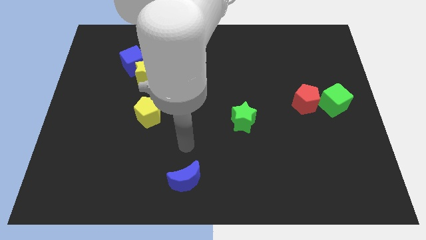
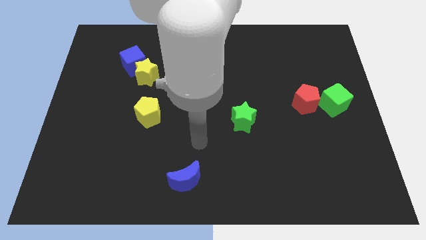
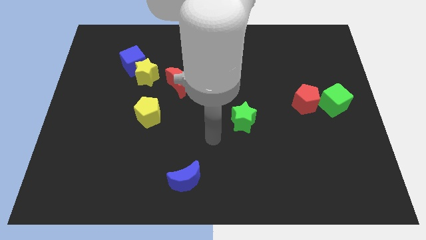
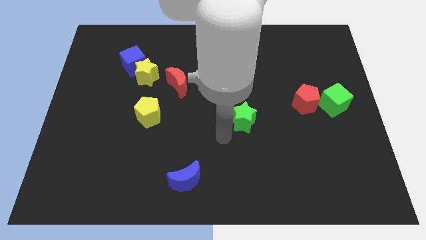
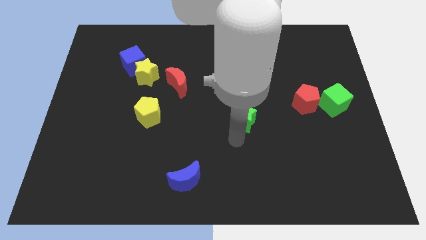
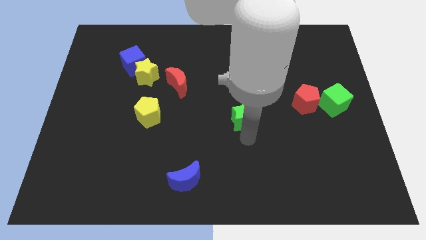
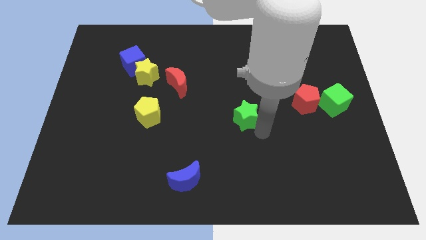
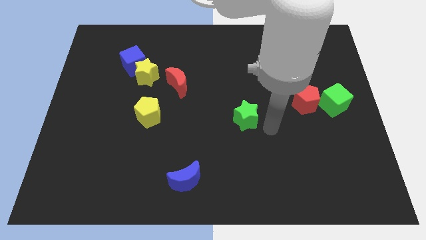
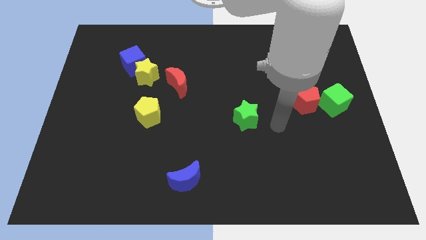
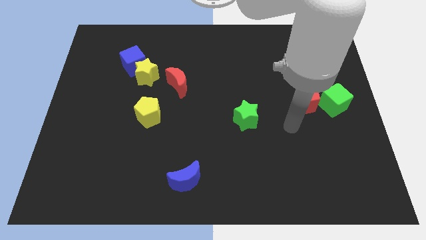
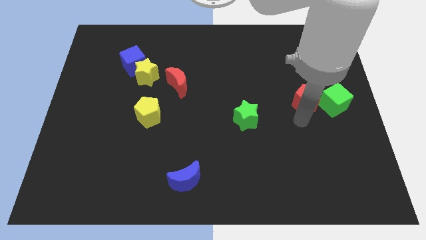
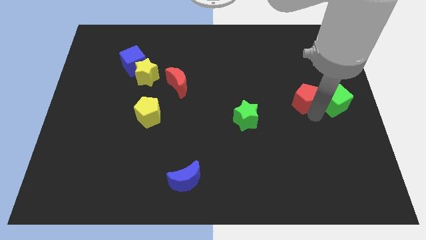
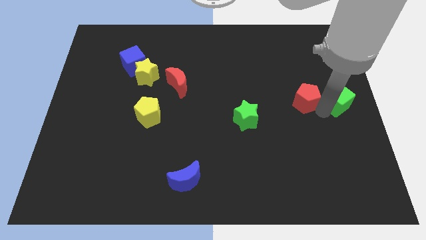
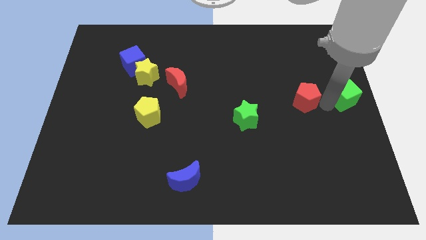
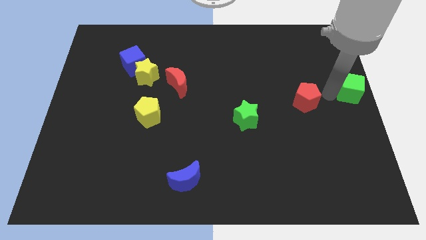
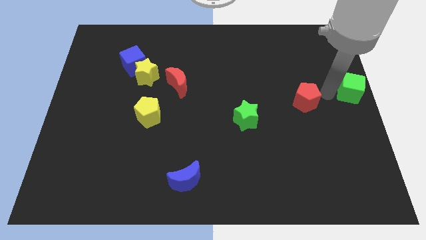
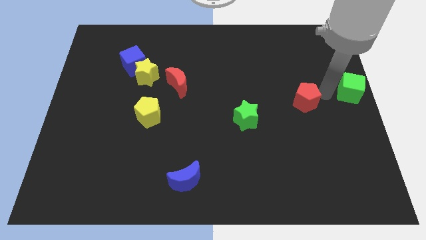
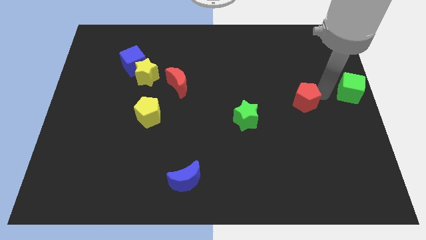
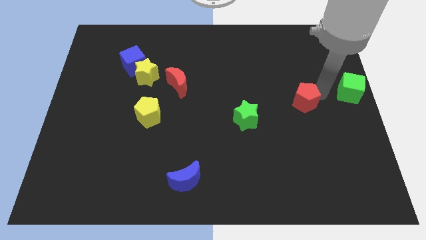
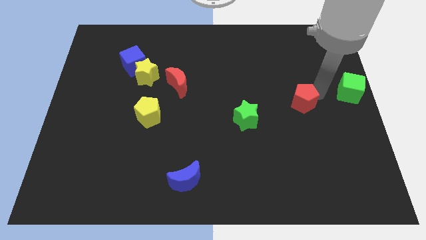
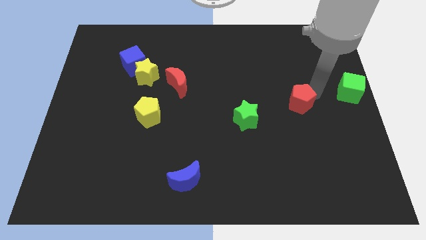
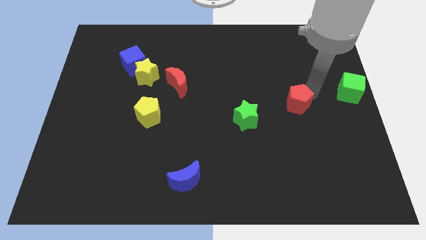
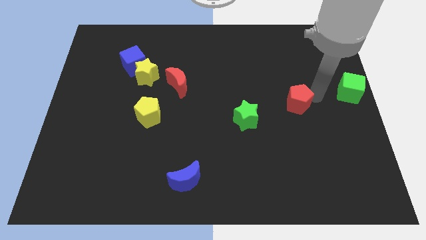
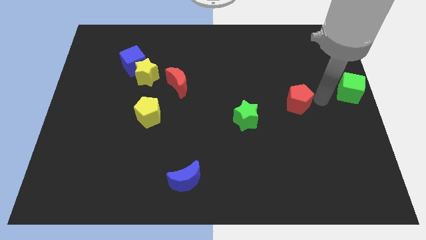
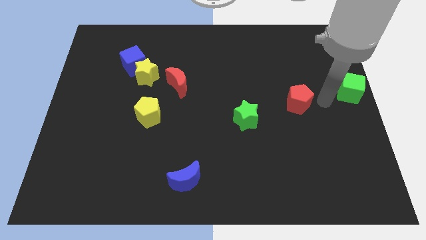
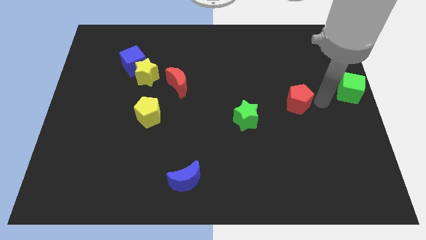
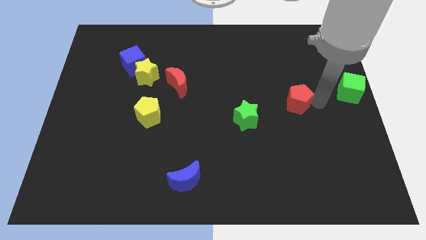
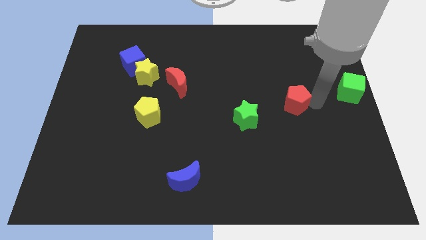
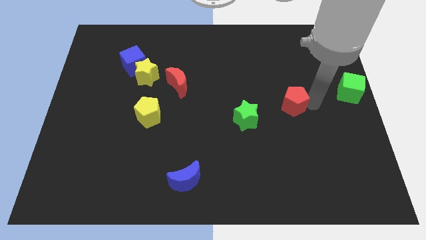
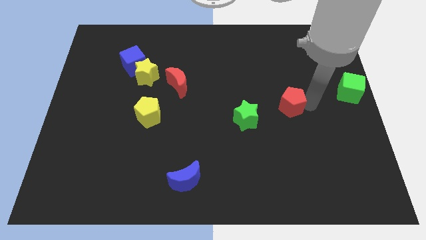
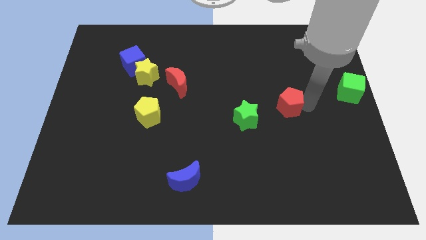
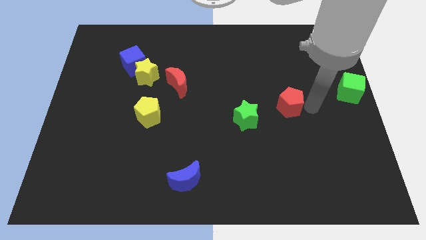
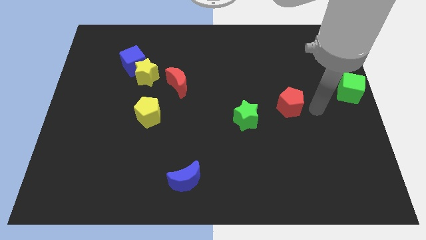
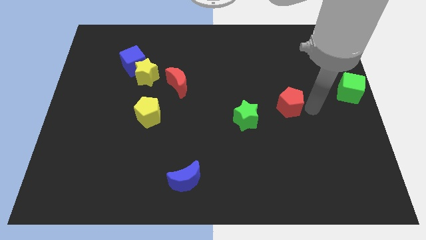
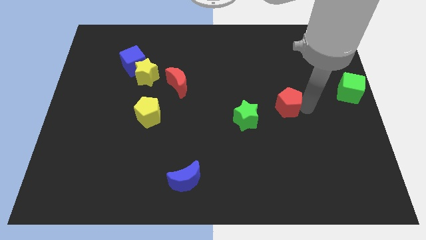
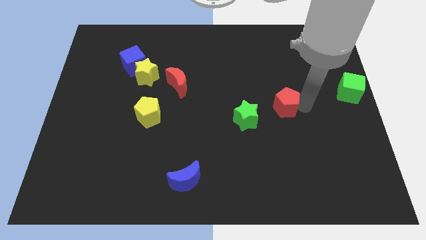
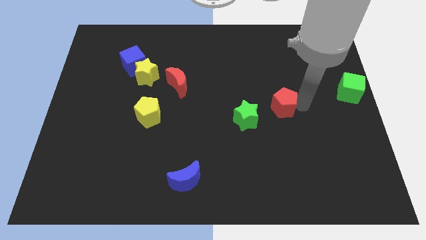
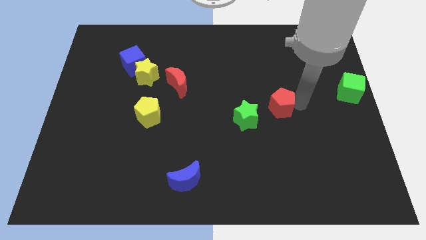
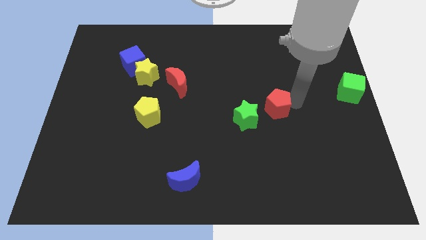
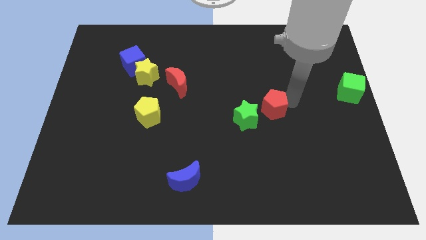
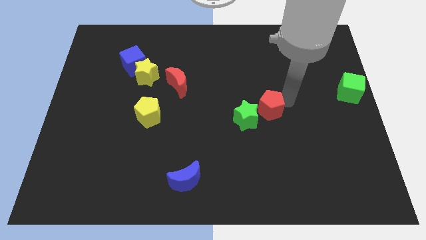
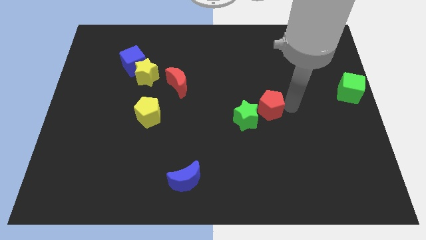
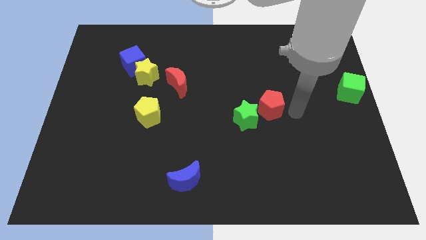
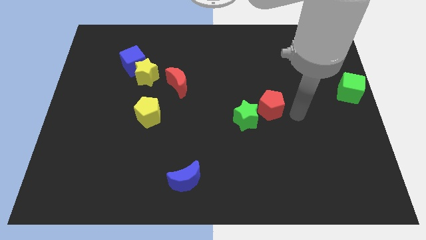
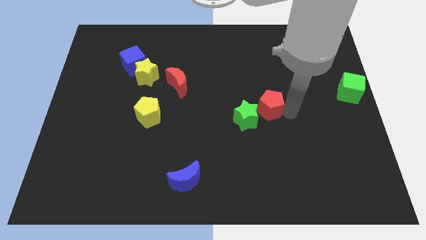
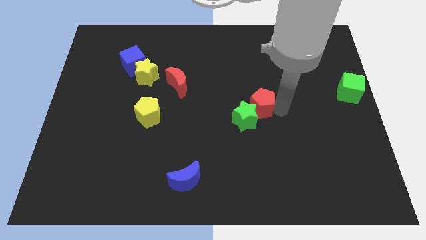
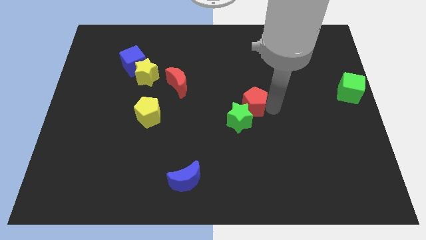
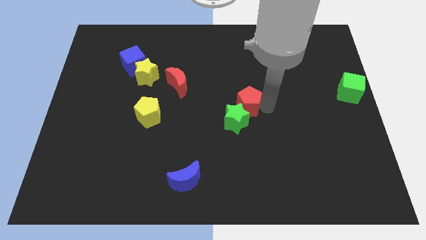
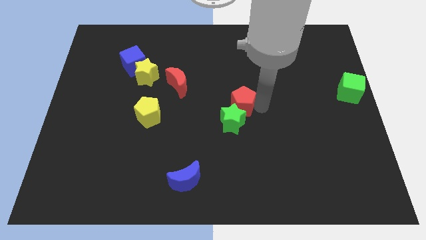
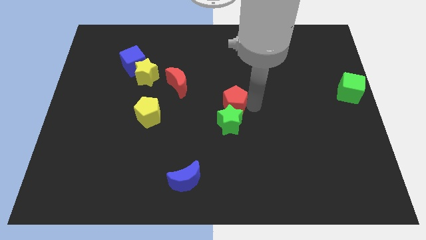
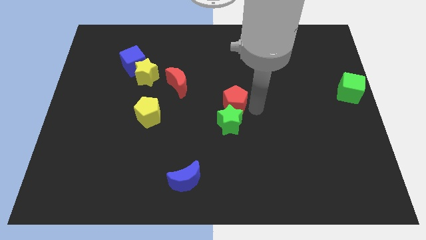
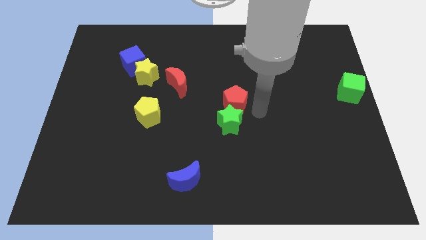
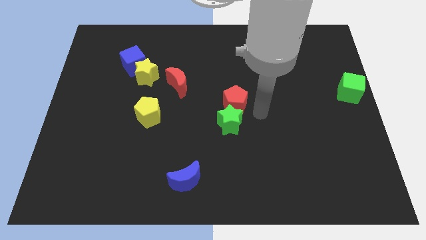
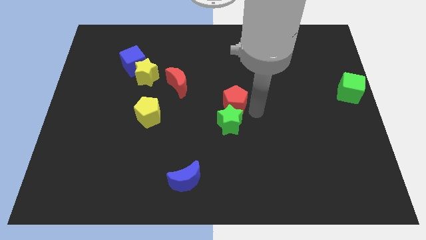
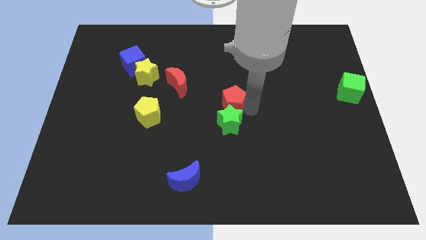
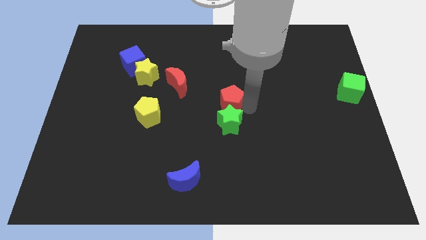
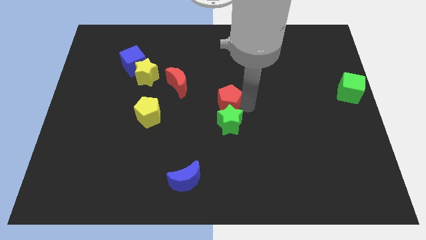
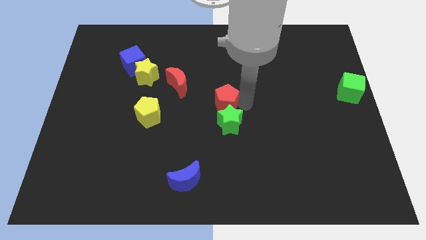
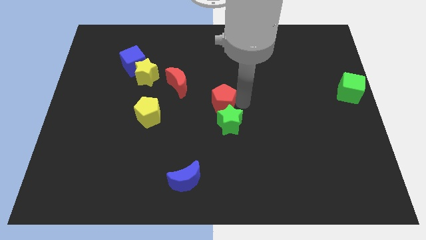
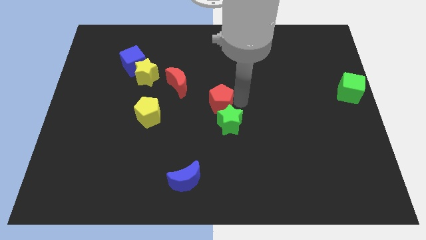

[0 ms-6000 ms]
slide the red pentagon to the left

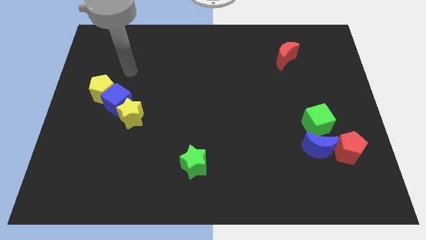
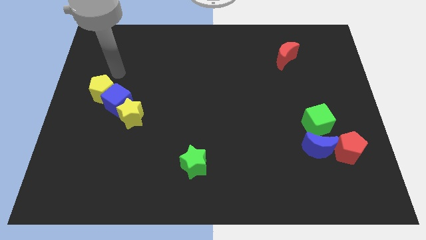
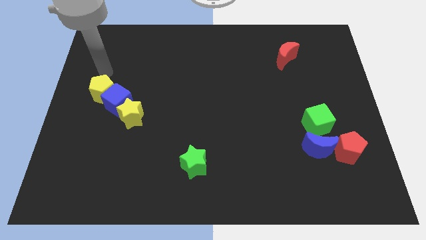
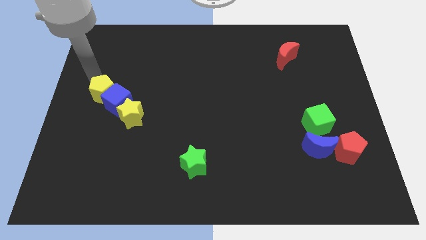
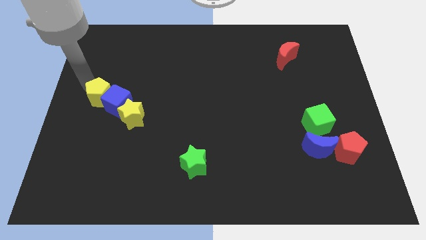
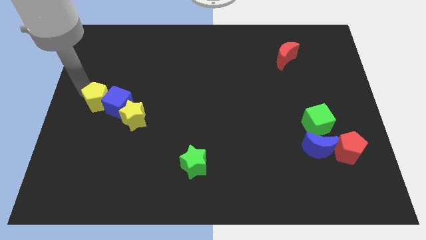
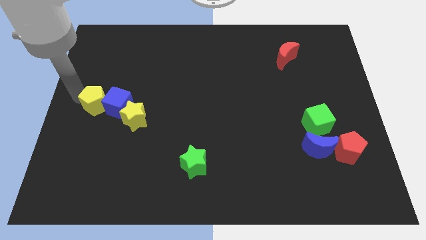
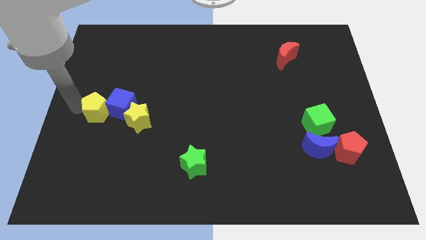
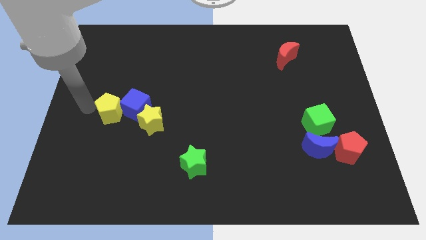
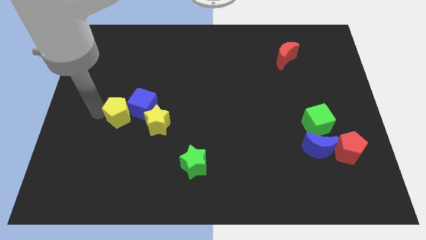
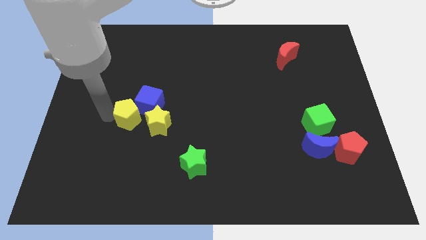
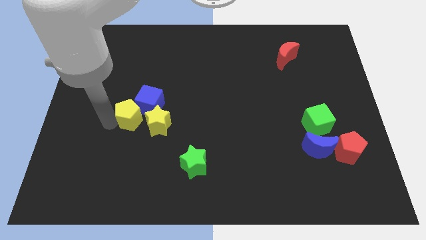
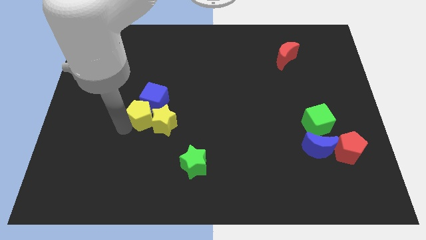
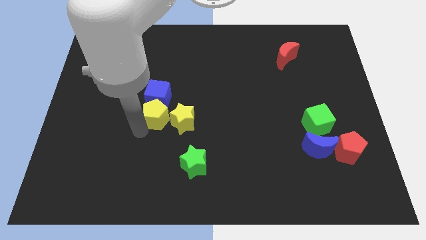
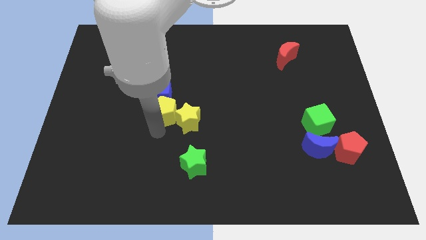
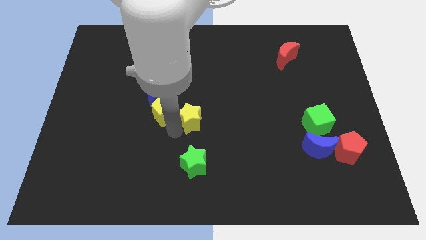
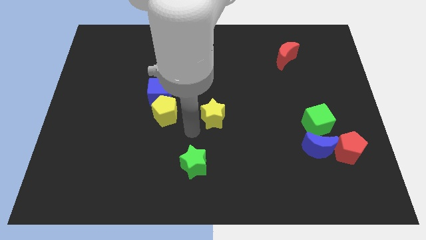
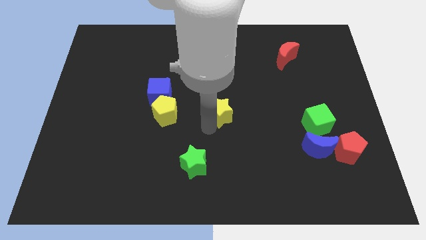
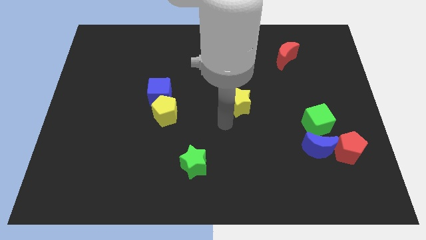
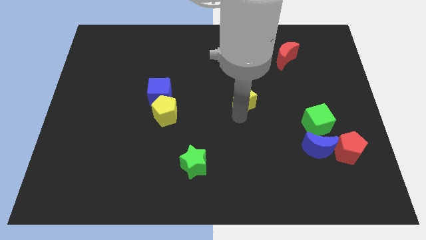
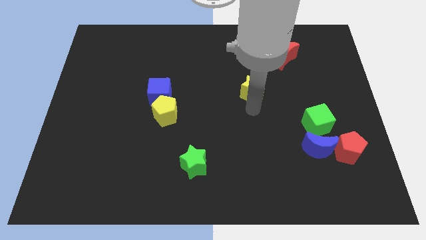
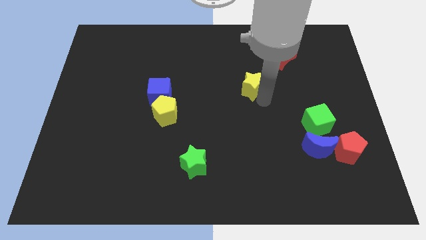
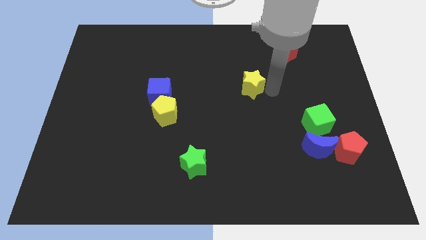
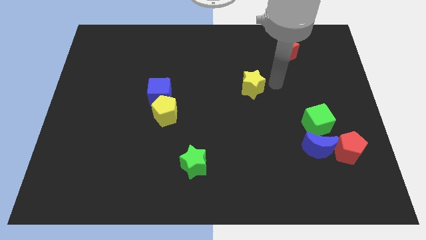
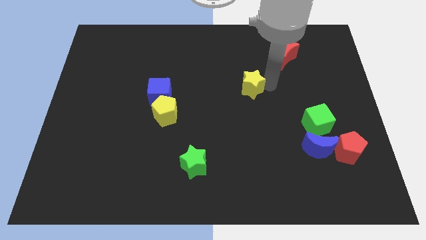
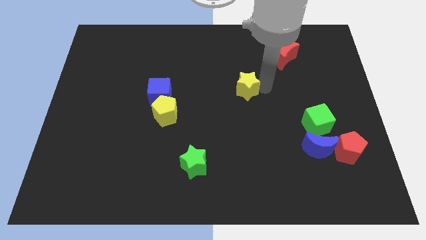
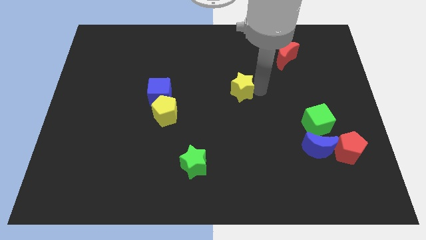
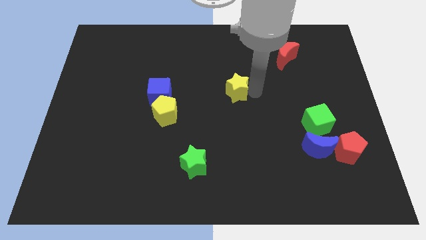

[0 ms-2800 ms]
slightly slide the yellow star diagonally up and right
